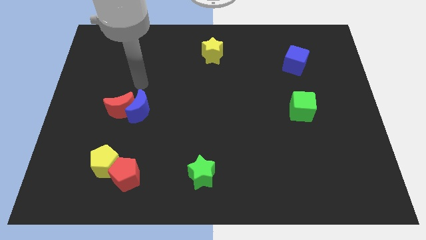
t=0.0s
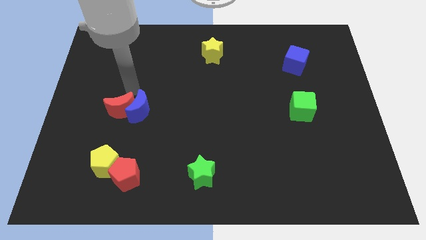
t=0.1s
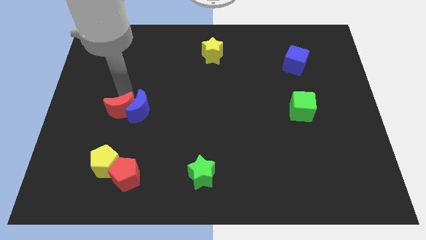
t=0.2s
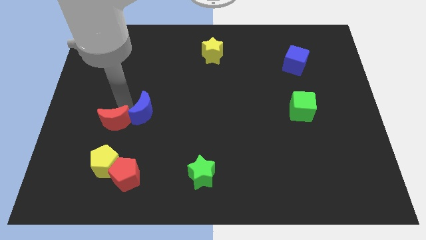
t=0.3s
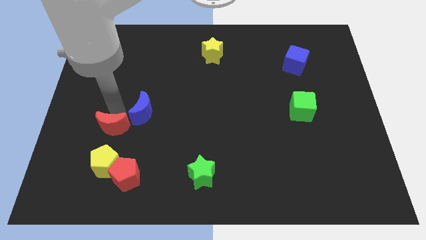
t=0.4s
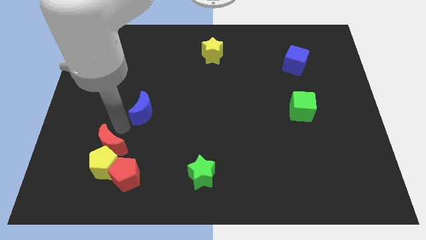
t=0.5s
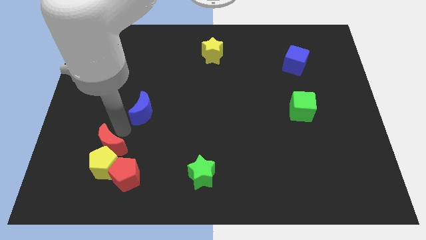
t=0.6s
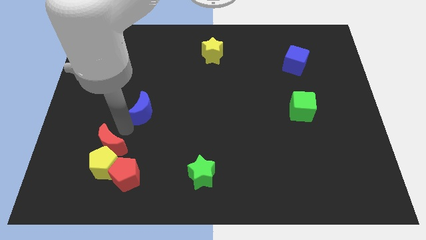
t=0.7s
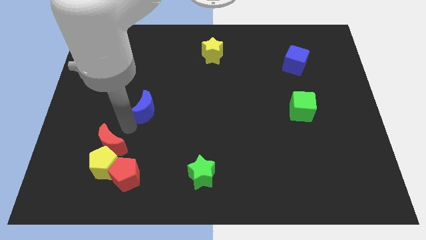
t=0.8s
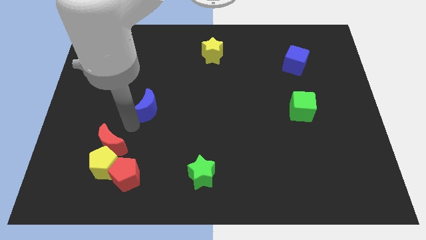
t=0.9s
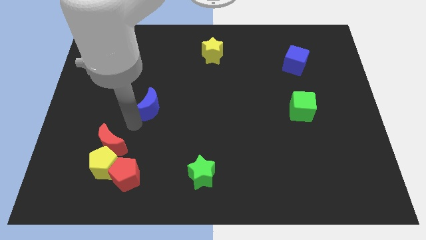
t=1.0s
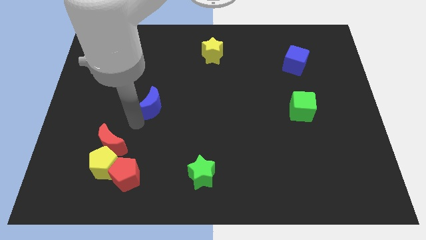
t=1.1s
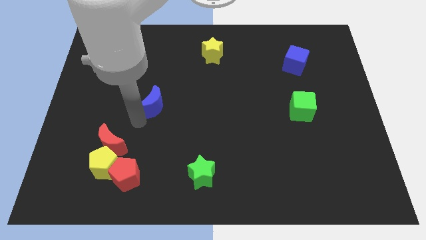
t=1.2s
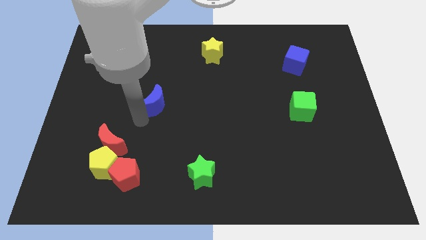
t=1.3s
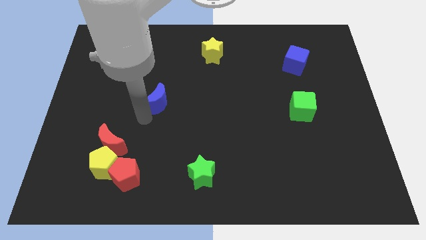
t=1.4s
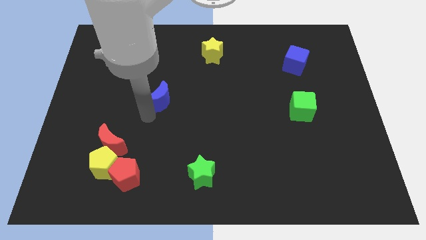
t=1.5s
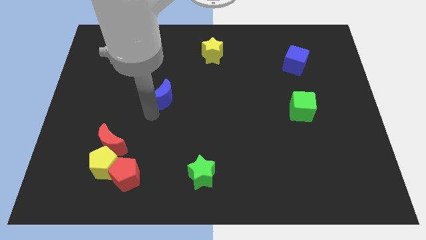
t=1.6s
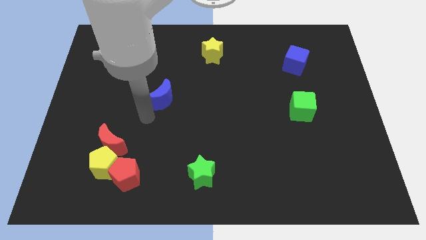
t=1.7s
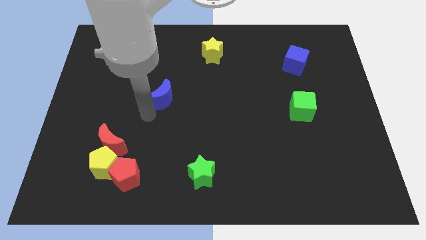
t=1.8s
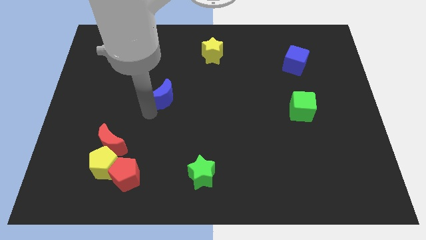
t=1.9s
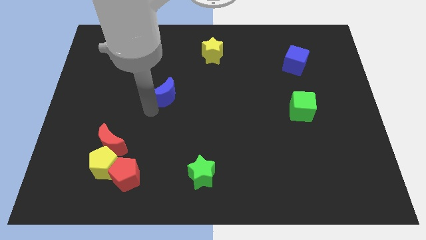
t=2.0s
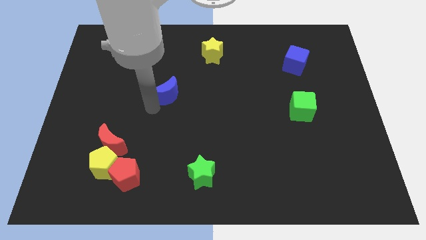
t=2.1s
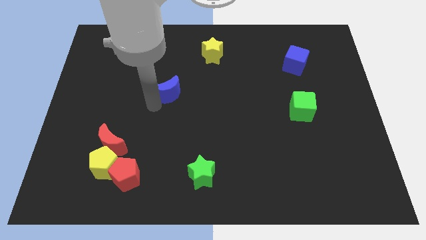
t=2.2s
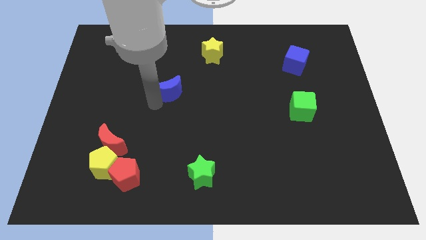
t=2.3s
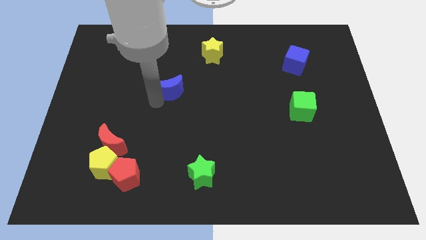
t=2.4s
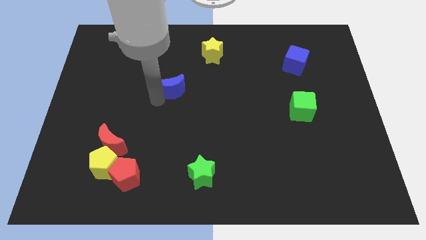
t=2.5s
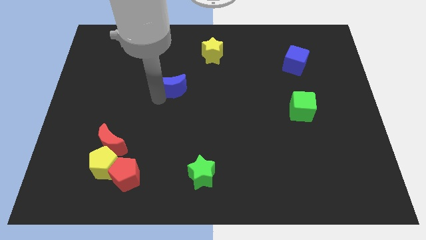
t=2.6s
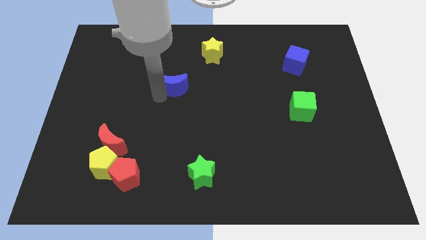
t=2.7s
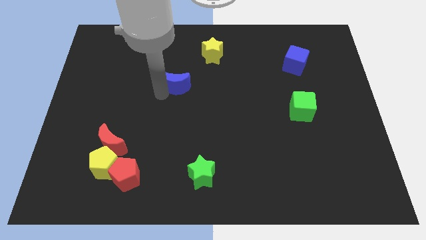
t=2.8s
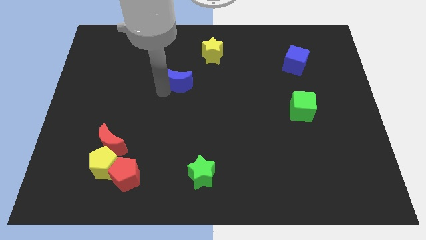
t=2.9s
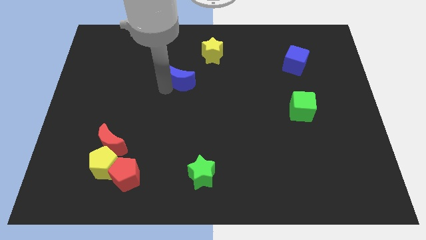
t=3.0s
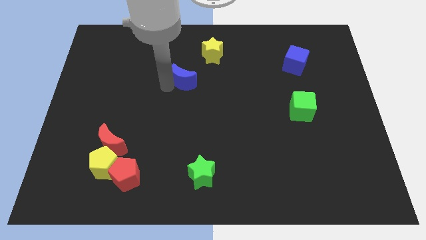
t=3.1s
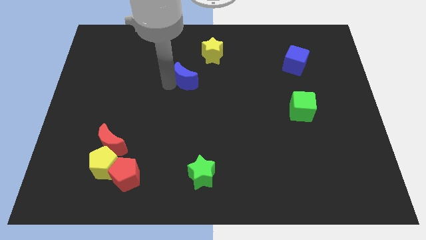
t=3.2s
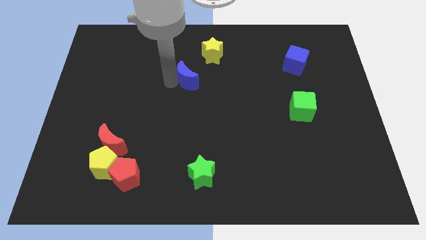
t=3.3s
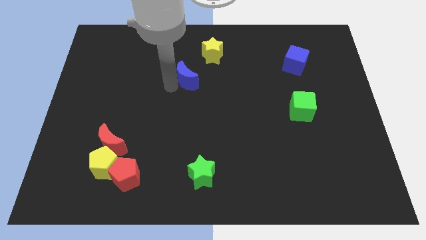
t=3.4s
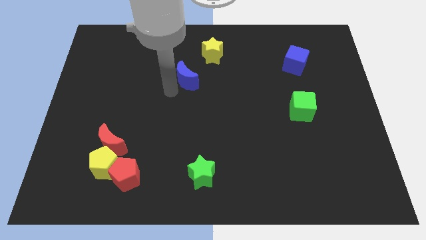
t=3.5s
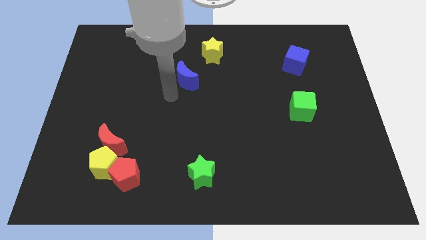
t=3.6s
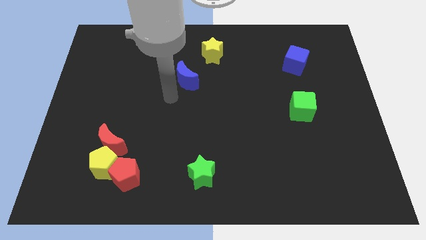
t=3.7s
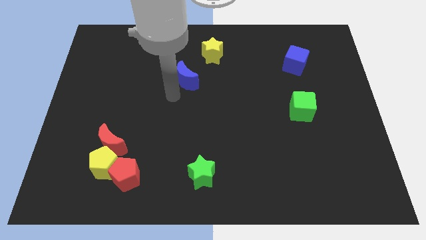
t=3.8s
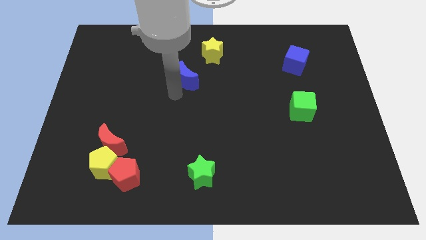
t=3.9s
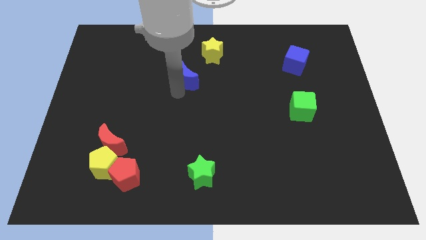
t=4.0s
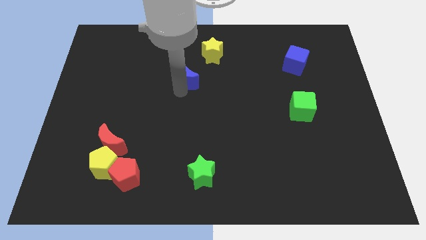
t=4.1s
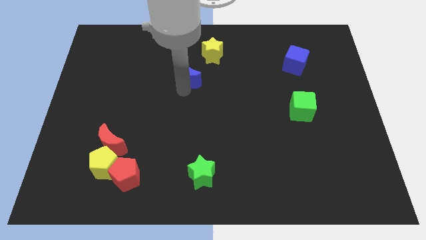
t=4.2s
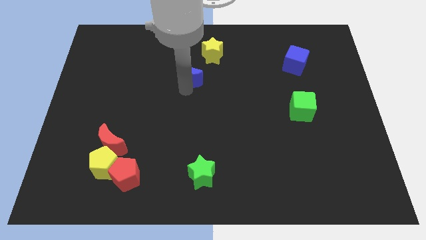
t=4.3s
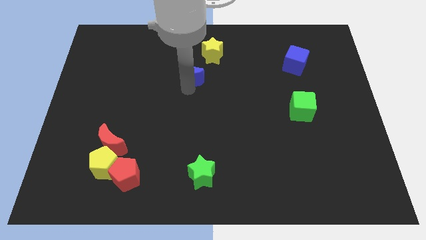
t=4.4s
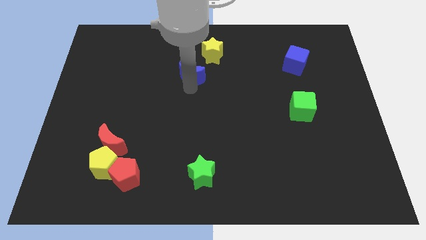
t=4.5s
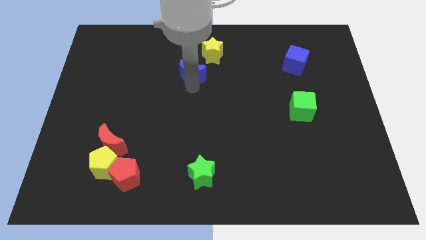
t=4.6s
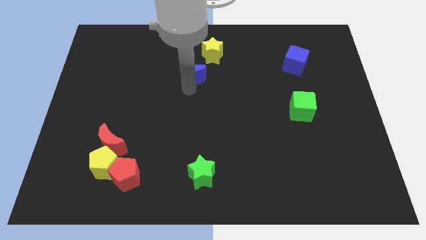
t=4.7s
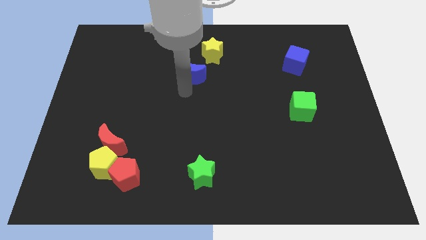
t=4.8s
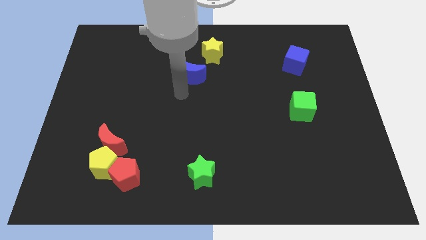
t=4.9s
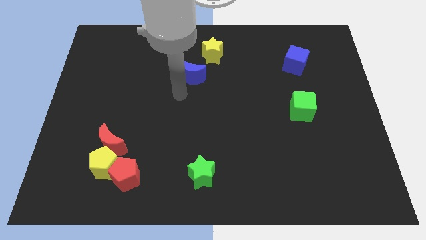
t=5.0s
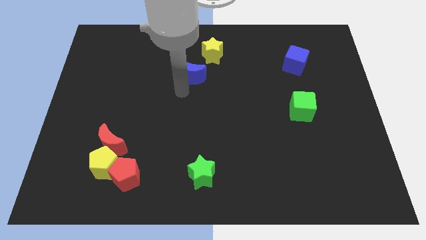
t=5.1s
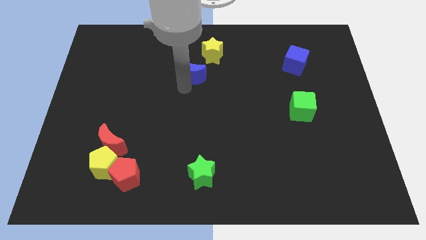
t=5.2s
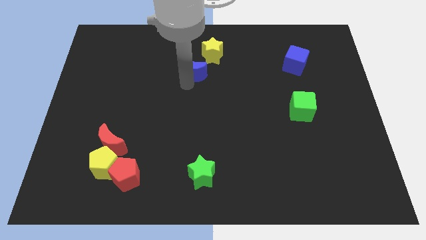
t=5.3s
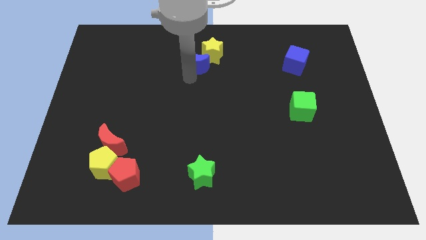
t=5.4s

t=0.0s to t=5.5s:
put the blue moon towards the yellow star

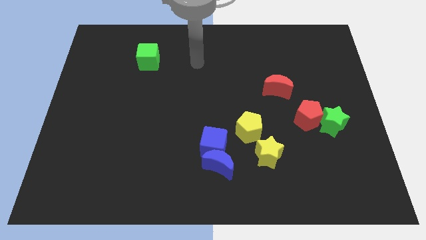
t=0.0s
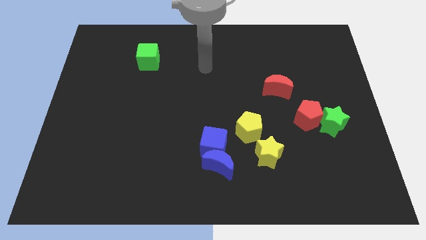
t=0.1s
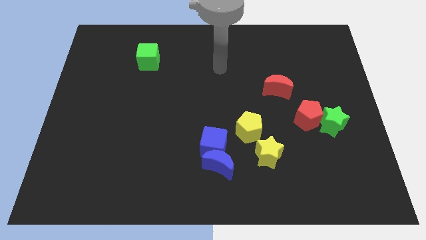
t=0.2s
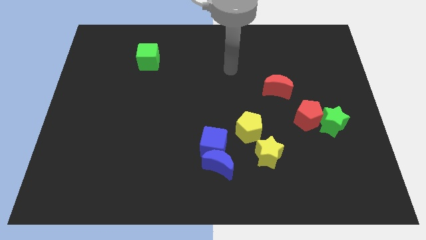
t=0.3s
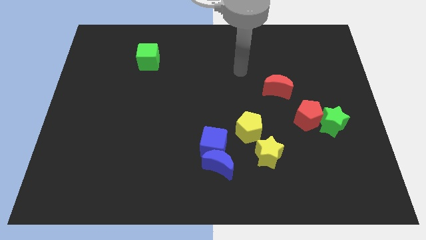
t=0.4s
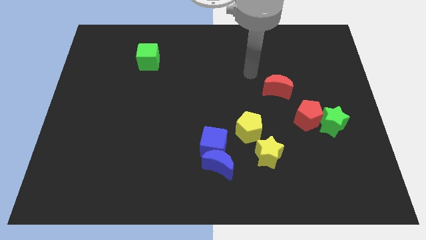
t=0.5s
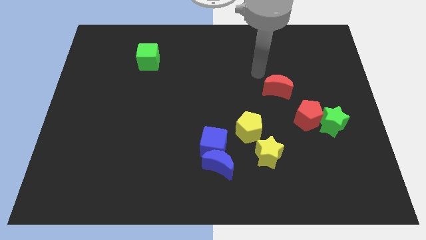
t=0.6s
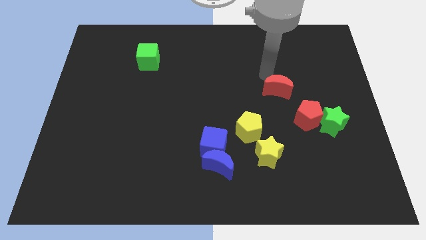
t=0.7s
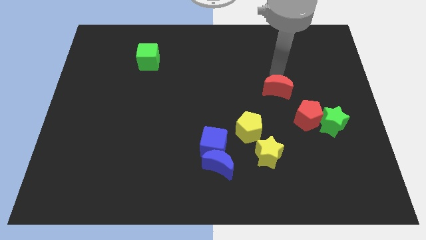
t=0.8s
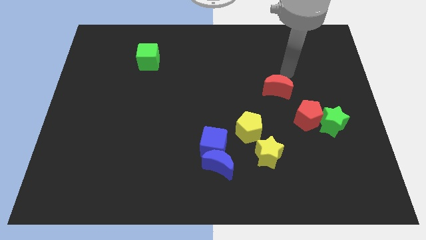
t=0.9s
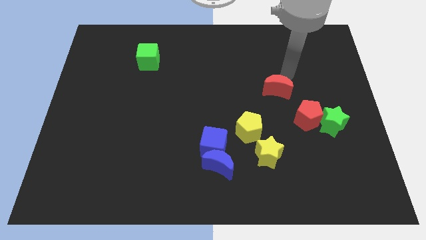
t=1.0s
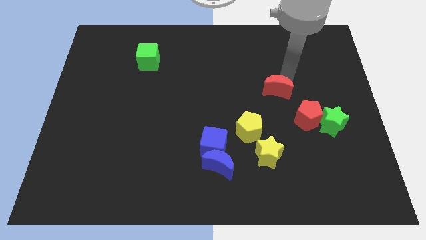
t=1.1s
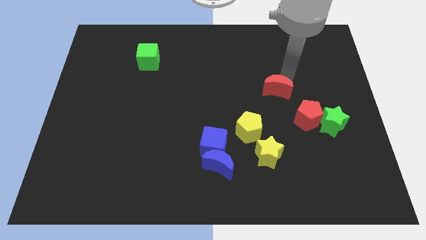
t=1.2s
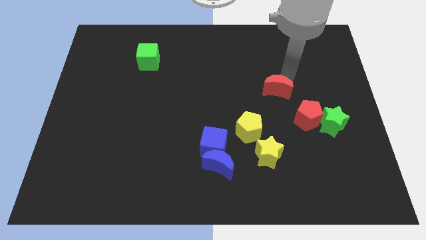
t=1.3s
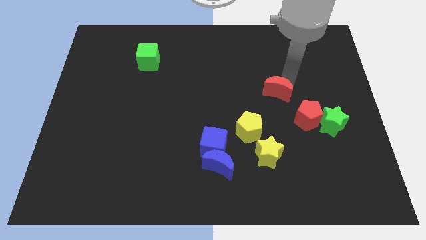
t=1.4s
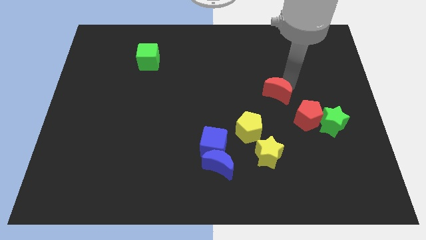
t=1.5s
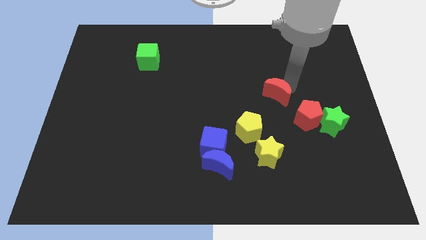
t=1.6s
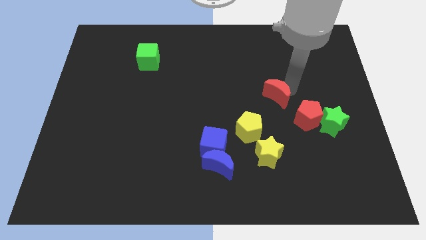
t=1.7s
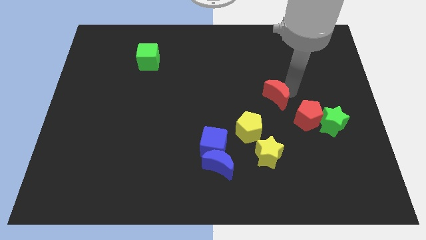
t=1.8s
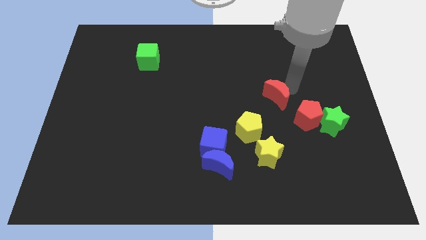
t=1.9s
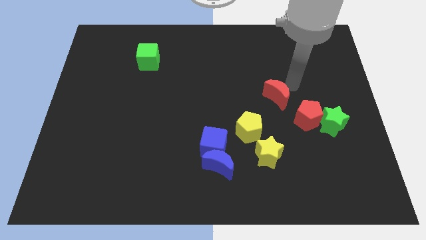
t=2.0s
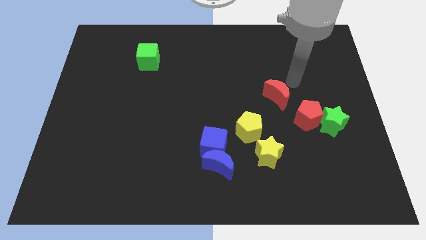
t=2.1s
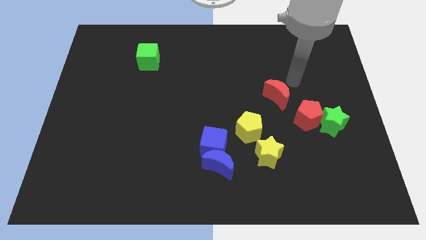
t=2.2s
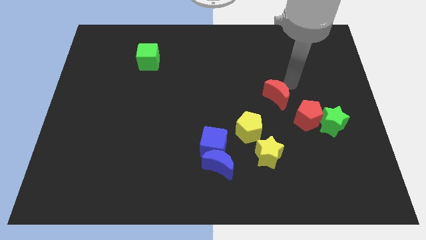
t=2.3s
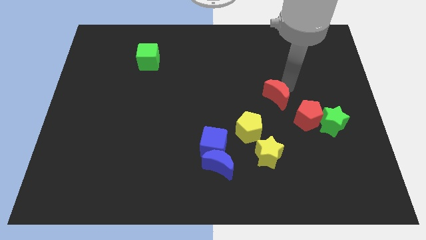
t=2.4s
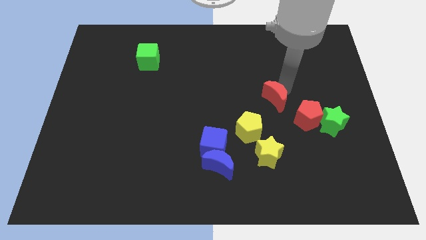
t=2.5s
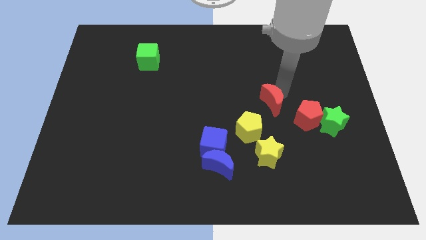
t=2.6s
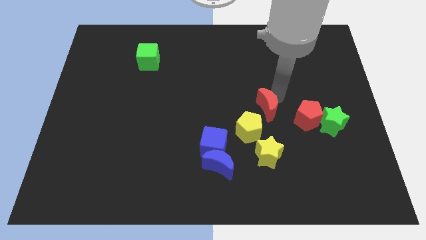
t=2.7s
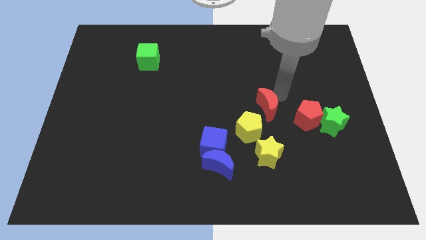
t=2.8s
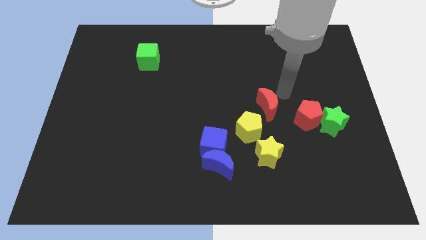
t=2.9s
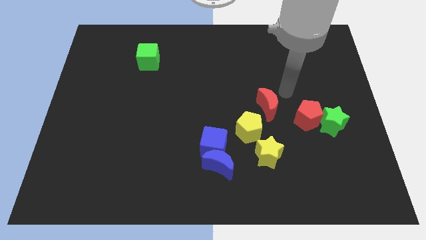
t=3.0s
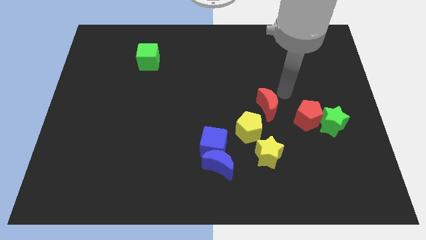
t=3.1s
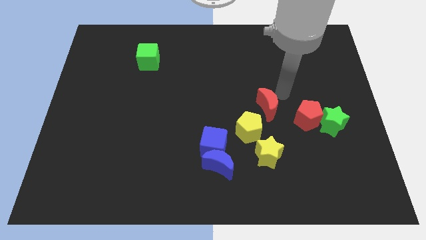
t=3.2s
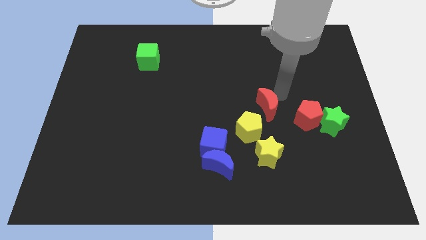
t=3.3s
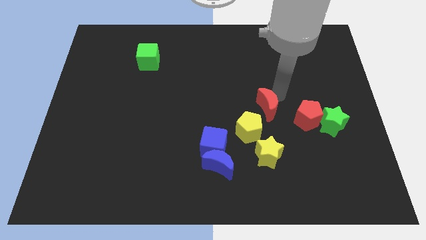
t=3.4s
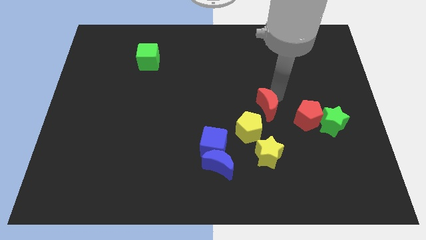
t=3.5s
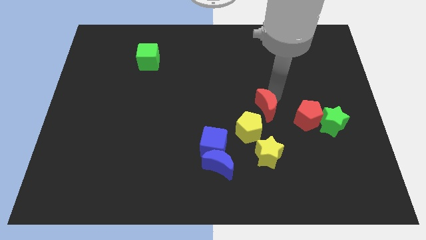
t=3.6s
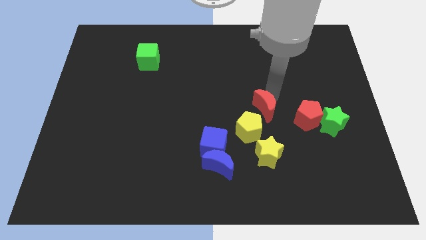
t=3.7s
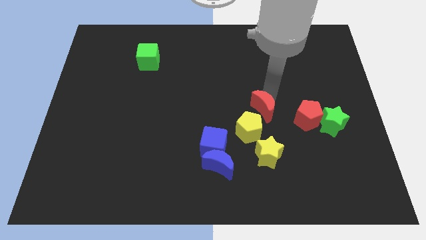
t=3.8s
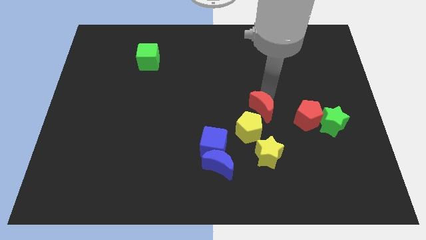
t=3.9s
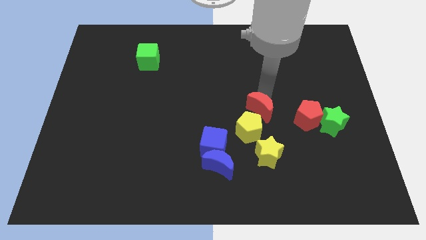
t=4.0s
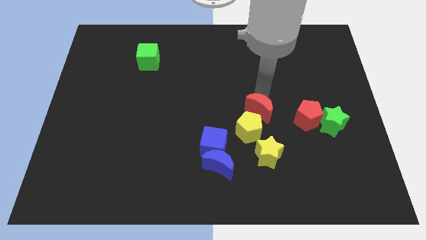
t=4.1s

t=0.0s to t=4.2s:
slide the red moon next to the yellow pentagon
